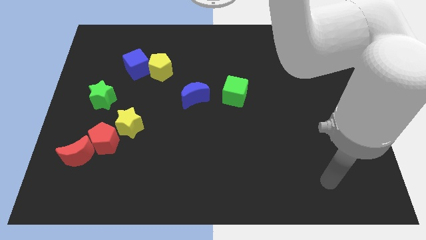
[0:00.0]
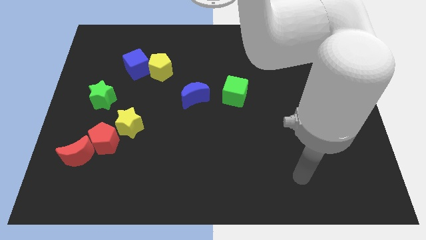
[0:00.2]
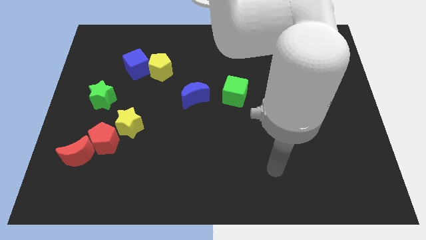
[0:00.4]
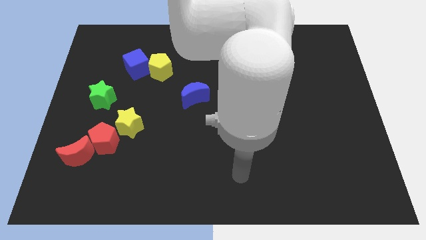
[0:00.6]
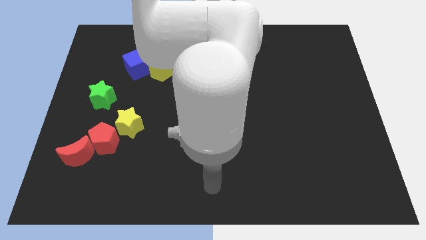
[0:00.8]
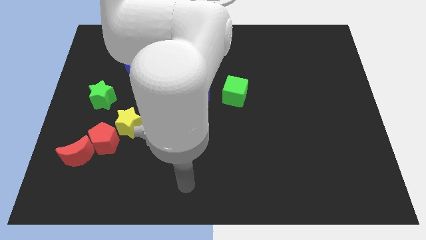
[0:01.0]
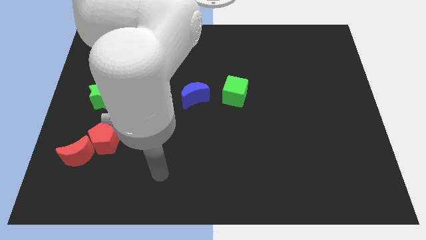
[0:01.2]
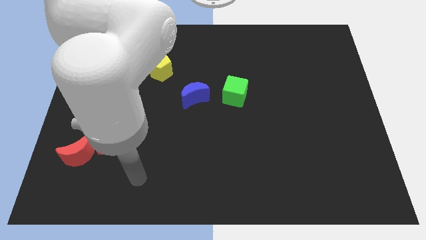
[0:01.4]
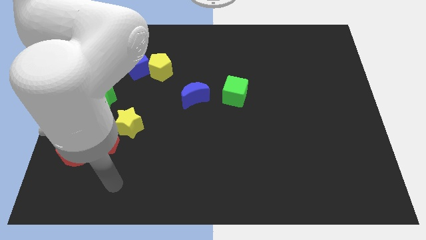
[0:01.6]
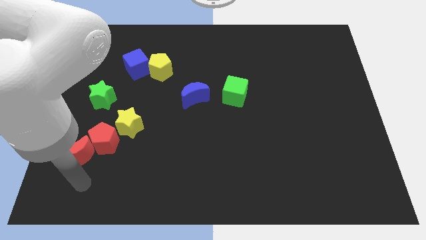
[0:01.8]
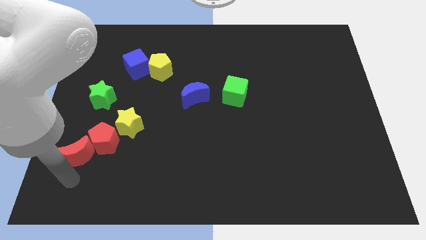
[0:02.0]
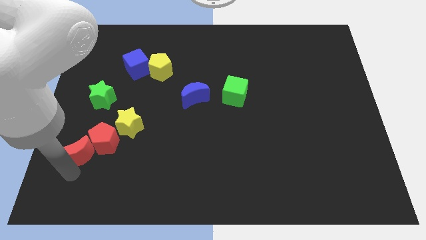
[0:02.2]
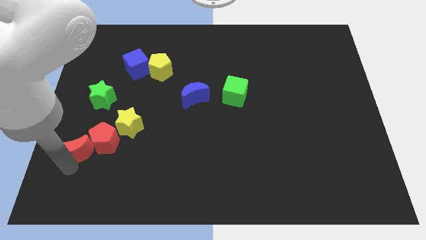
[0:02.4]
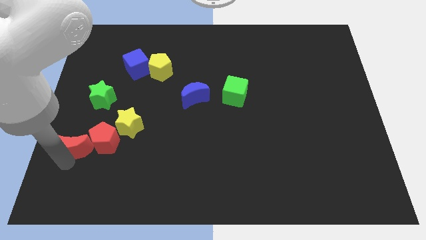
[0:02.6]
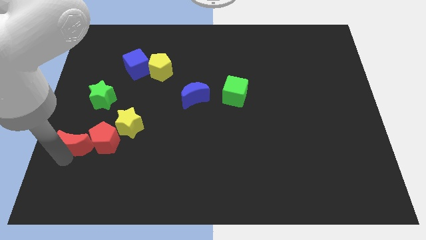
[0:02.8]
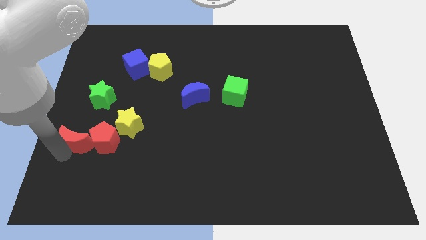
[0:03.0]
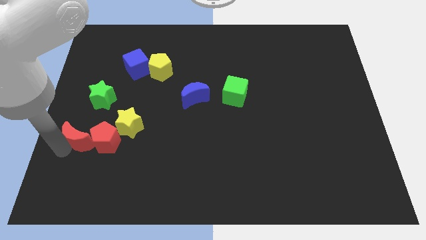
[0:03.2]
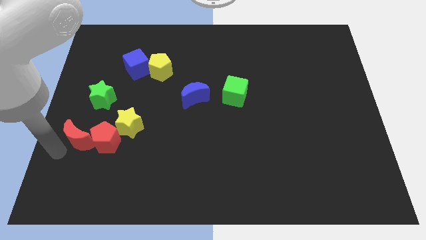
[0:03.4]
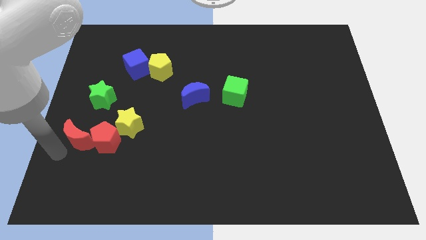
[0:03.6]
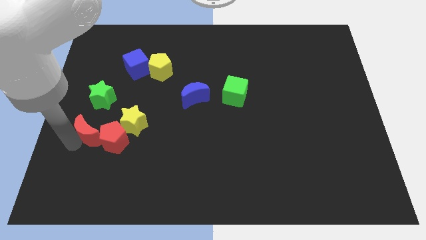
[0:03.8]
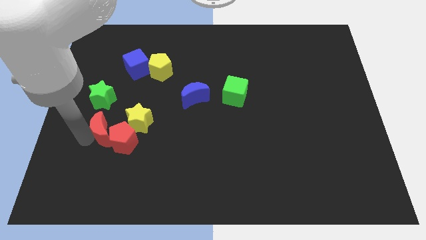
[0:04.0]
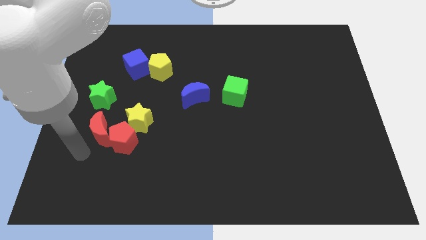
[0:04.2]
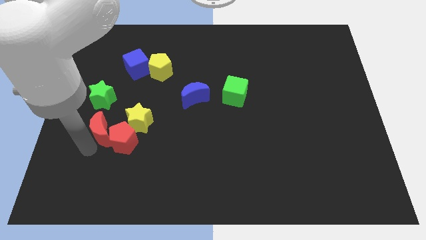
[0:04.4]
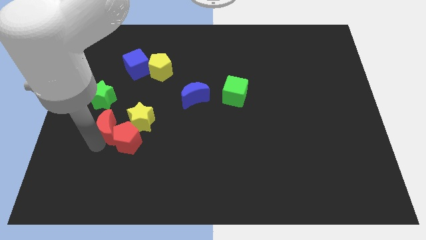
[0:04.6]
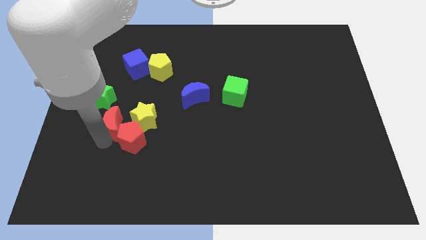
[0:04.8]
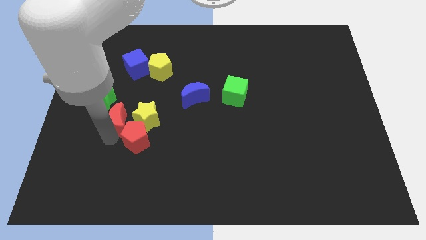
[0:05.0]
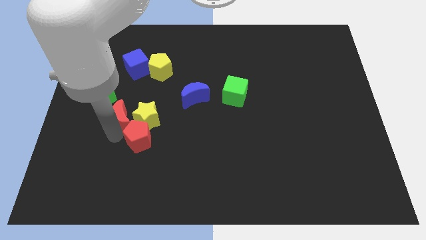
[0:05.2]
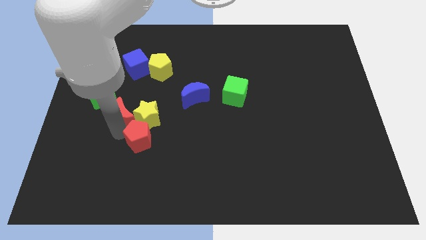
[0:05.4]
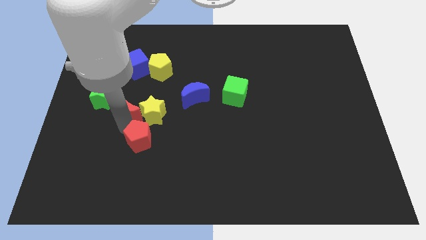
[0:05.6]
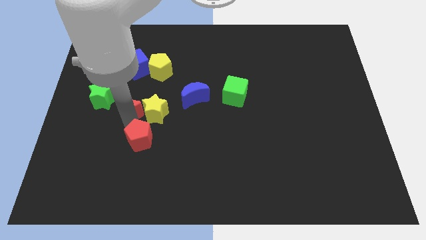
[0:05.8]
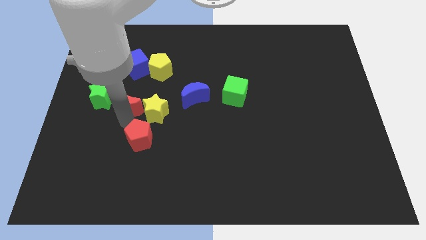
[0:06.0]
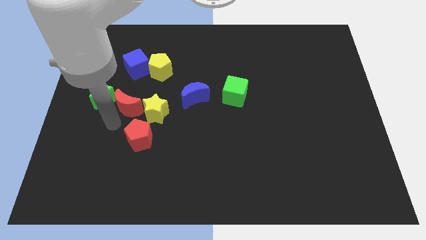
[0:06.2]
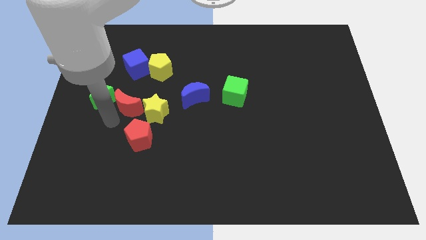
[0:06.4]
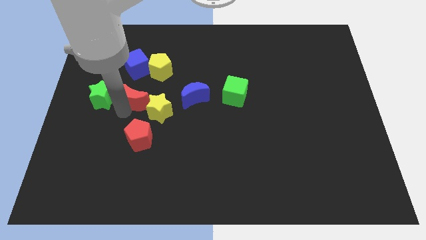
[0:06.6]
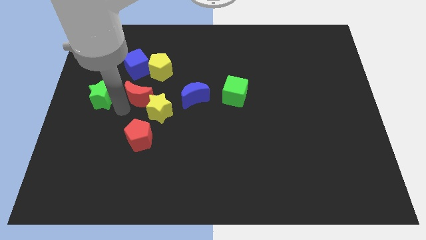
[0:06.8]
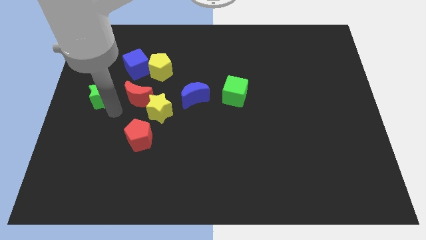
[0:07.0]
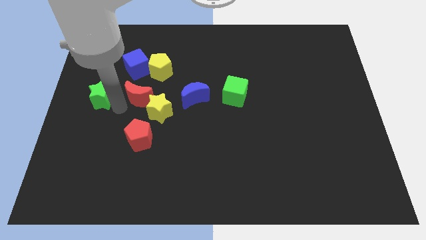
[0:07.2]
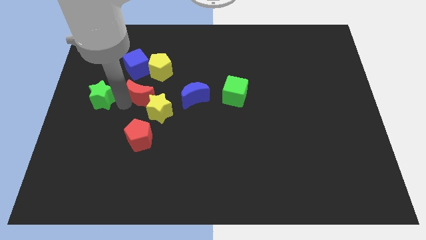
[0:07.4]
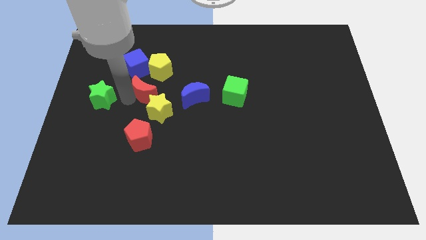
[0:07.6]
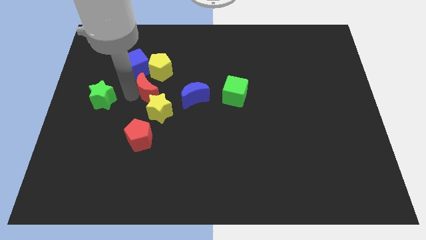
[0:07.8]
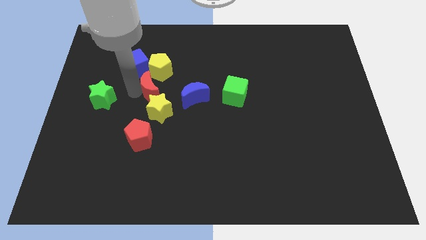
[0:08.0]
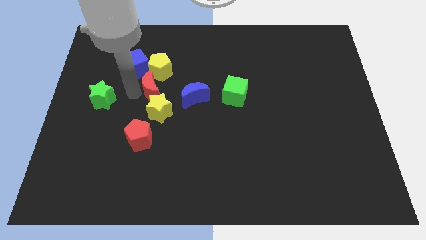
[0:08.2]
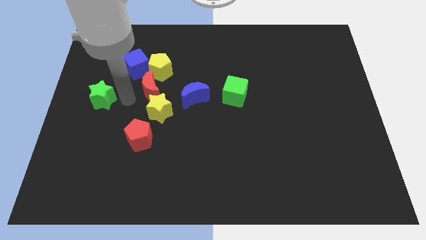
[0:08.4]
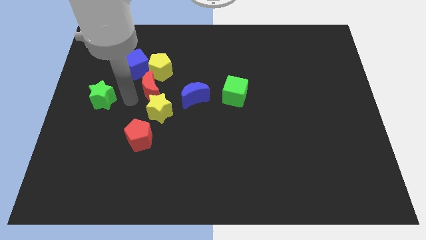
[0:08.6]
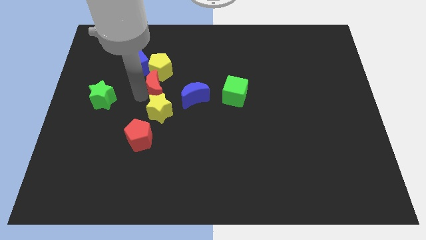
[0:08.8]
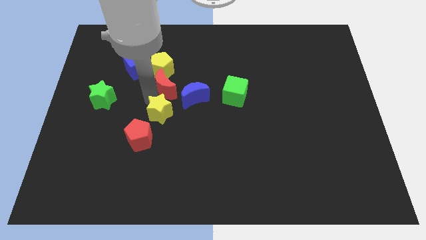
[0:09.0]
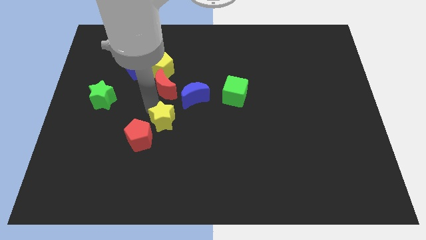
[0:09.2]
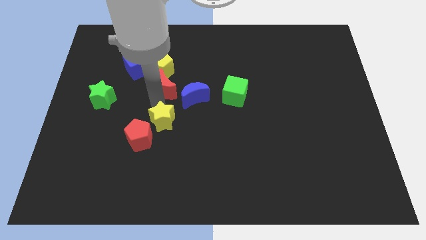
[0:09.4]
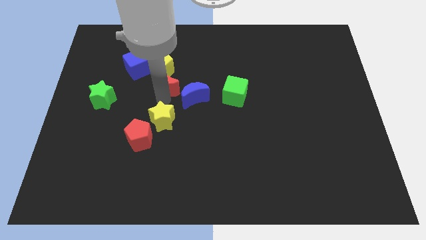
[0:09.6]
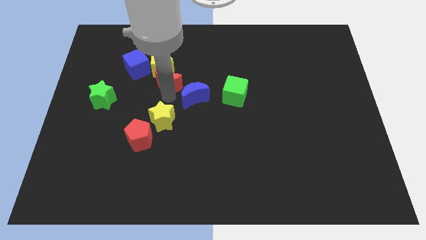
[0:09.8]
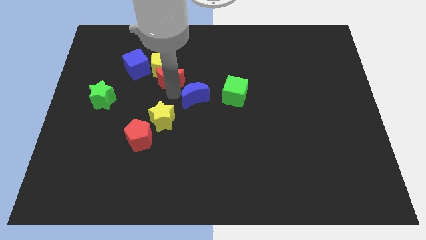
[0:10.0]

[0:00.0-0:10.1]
slide the red moon to the right of the blue cube
